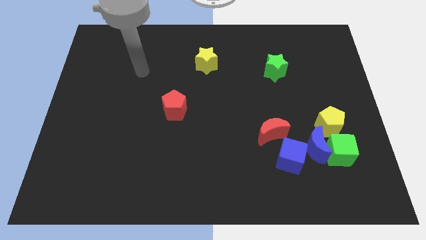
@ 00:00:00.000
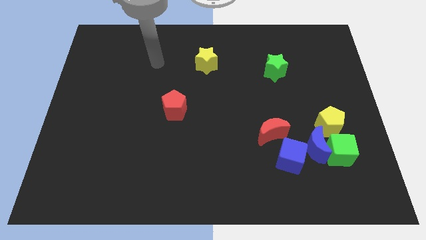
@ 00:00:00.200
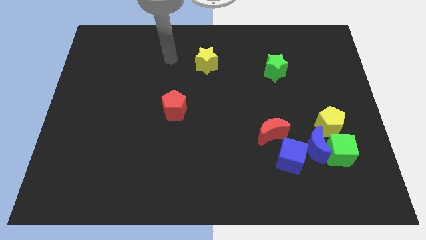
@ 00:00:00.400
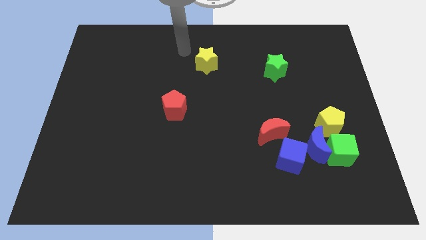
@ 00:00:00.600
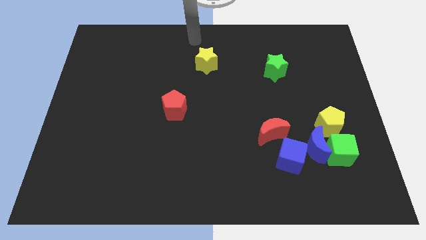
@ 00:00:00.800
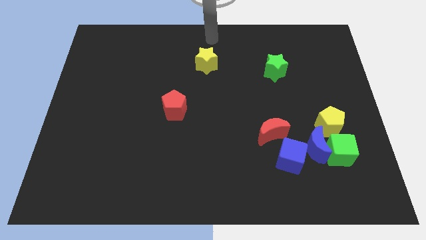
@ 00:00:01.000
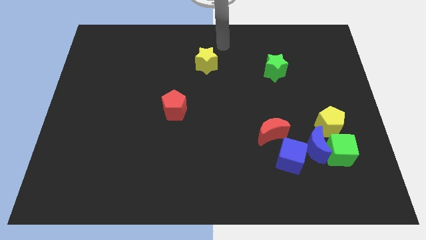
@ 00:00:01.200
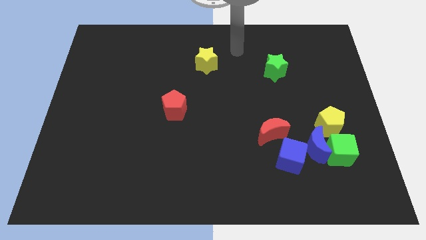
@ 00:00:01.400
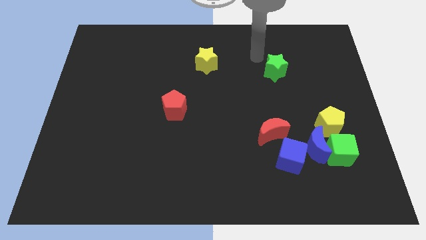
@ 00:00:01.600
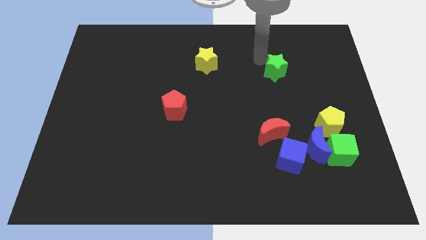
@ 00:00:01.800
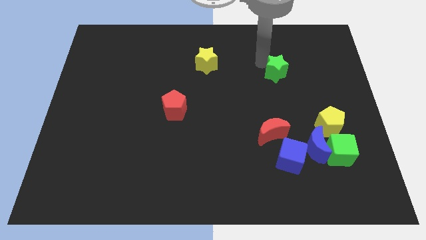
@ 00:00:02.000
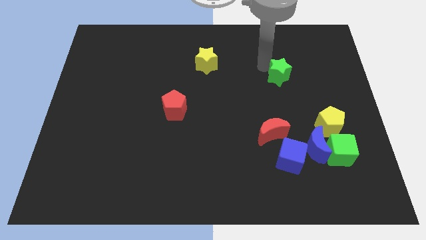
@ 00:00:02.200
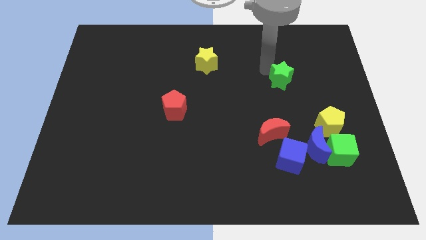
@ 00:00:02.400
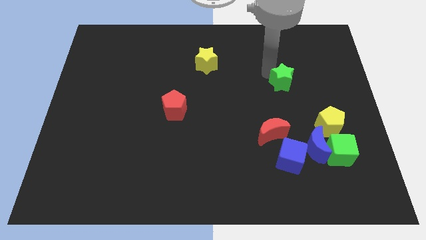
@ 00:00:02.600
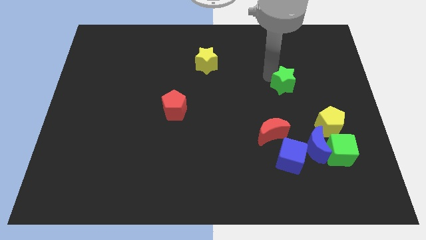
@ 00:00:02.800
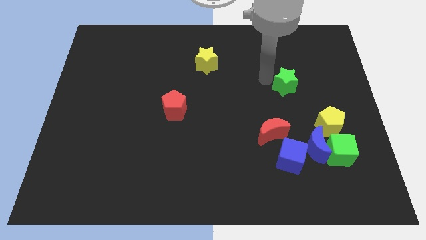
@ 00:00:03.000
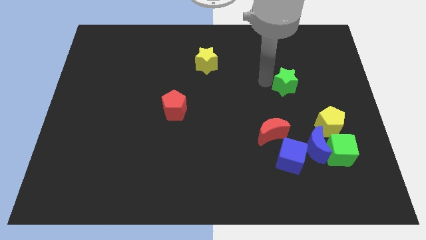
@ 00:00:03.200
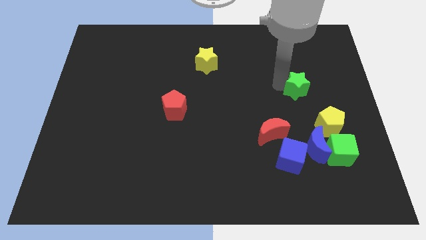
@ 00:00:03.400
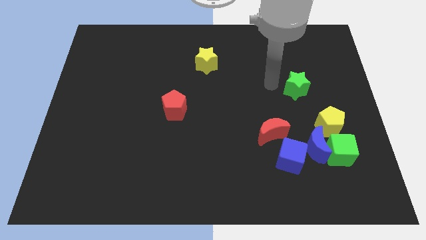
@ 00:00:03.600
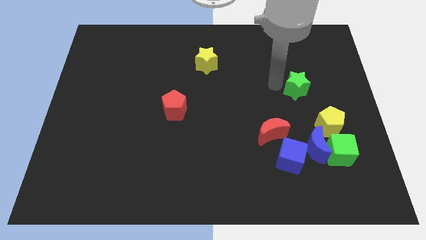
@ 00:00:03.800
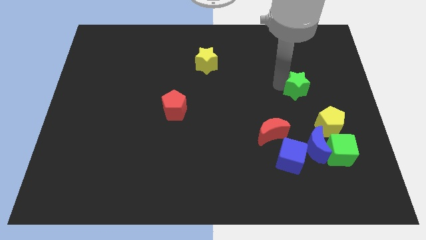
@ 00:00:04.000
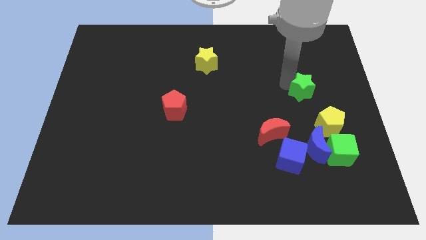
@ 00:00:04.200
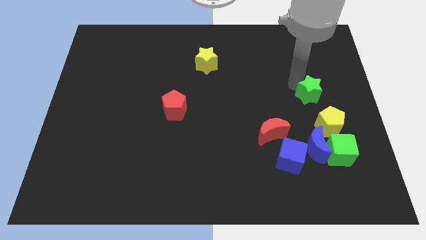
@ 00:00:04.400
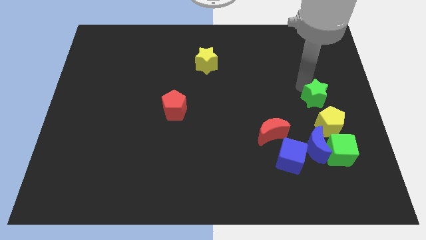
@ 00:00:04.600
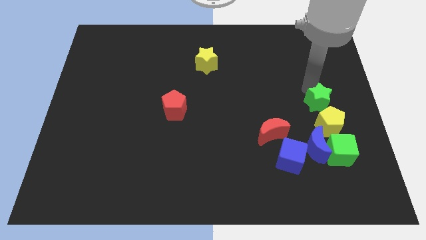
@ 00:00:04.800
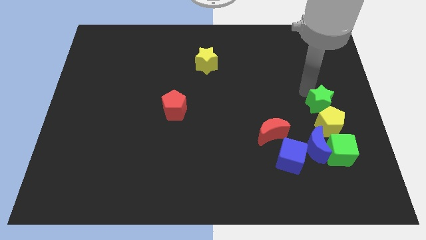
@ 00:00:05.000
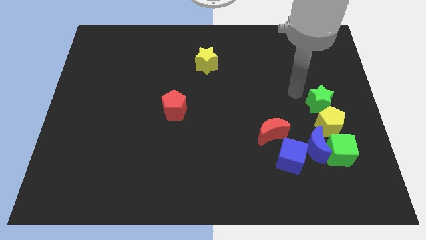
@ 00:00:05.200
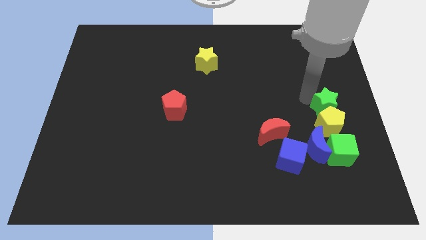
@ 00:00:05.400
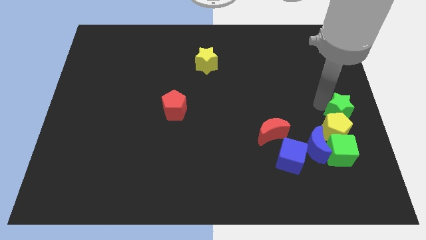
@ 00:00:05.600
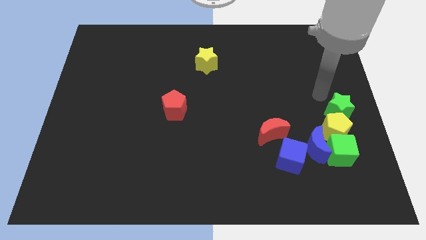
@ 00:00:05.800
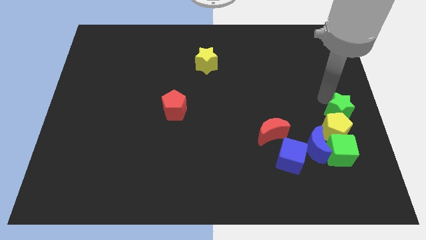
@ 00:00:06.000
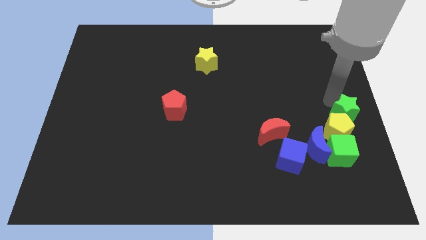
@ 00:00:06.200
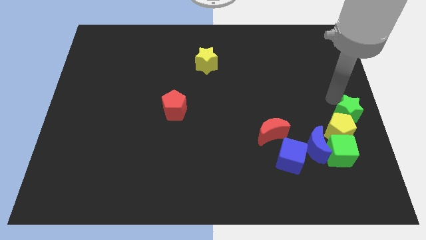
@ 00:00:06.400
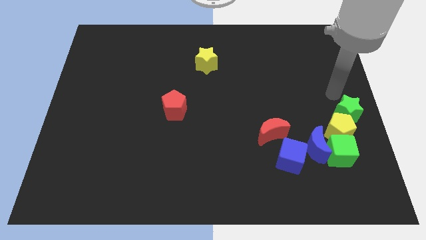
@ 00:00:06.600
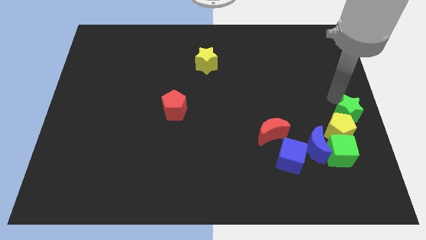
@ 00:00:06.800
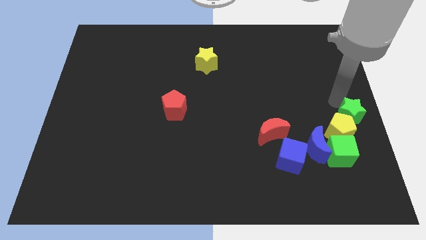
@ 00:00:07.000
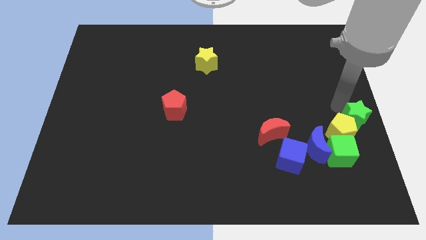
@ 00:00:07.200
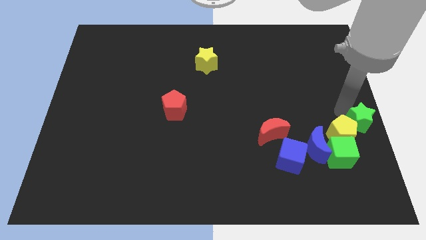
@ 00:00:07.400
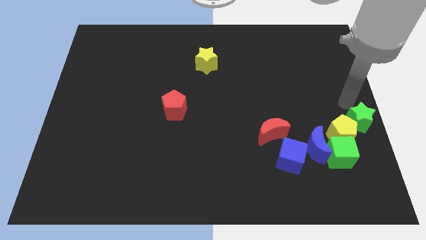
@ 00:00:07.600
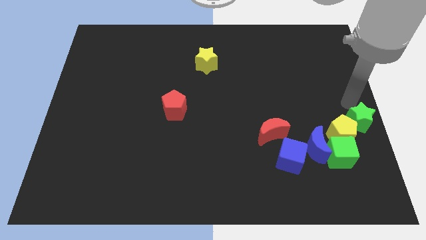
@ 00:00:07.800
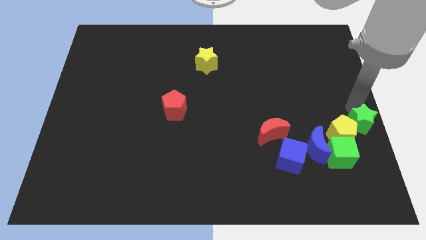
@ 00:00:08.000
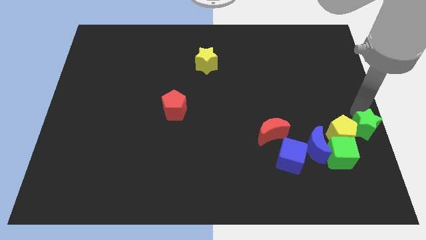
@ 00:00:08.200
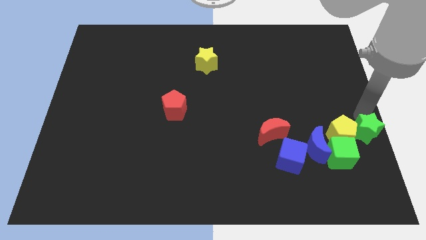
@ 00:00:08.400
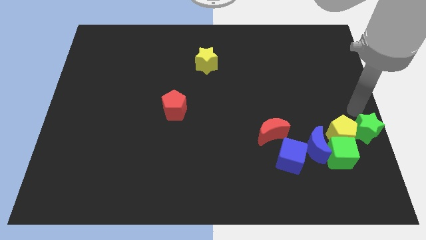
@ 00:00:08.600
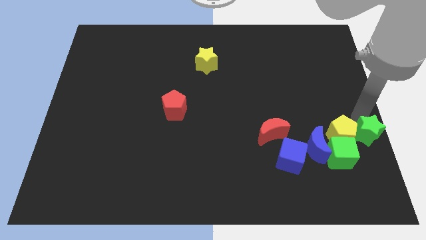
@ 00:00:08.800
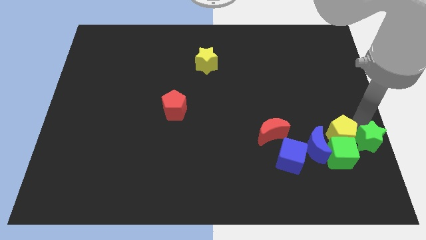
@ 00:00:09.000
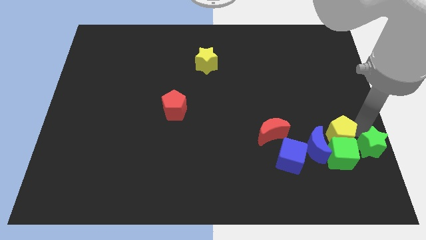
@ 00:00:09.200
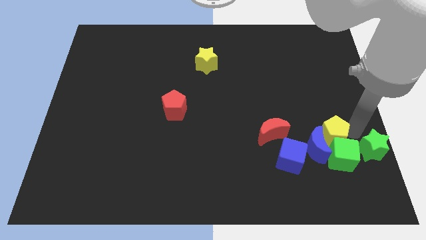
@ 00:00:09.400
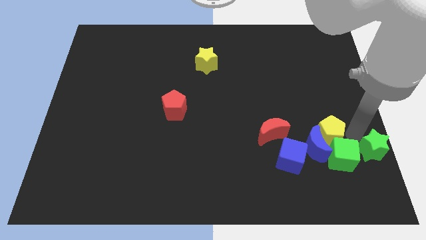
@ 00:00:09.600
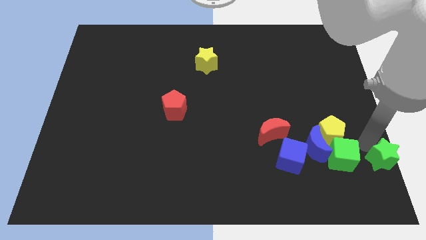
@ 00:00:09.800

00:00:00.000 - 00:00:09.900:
put the green star to the bottom right
